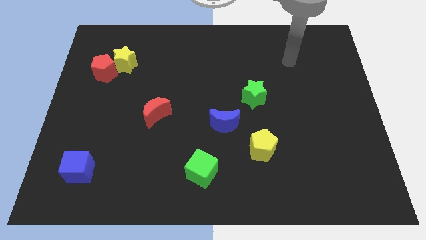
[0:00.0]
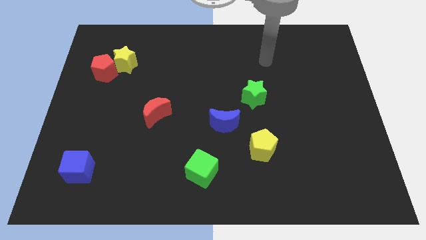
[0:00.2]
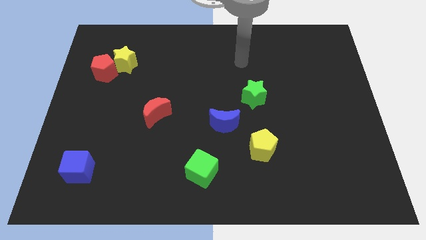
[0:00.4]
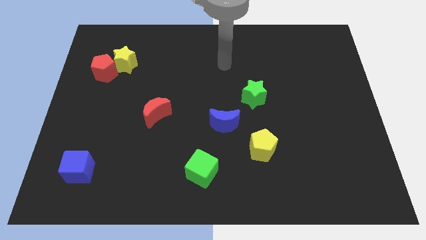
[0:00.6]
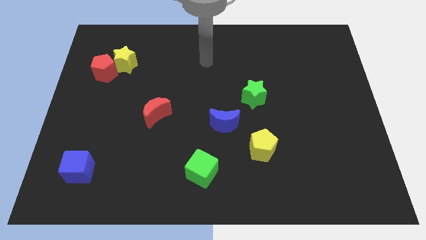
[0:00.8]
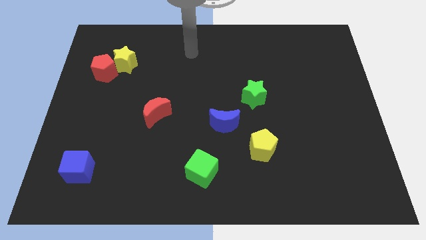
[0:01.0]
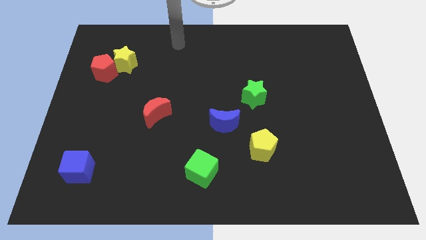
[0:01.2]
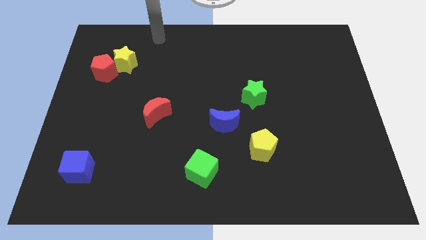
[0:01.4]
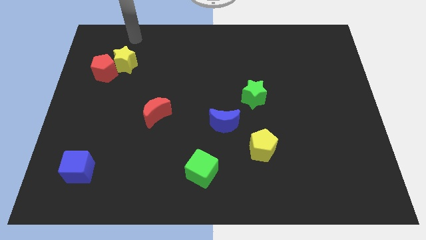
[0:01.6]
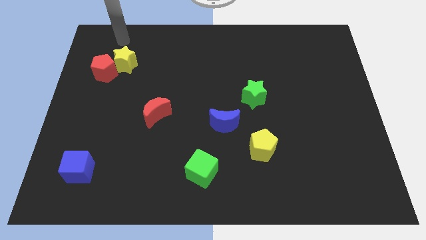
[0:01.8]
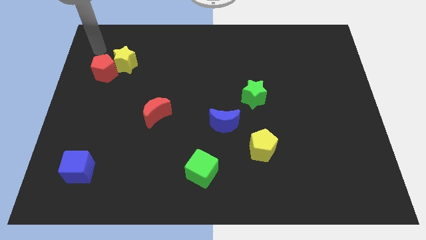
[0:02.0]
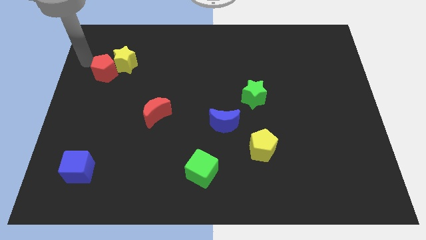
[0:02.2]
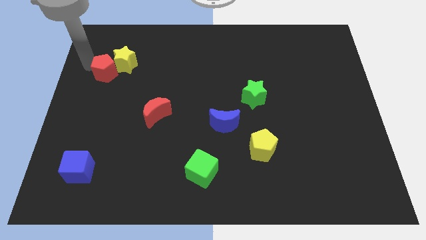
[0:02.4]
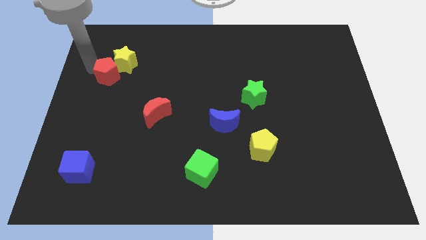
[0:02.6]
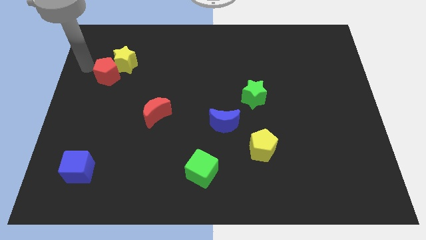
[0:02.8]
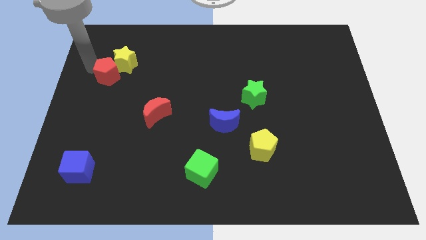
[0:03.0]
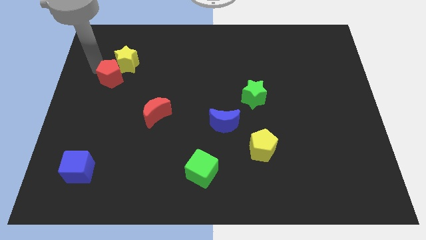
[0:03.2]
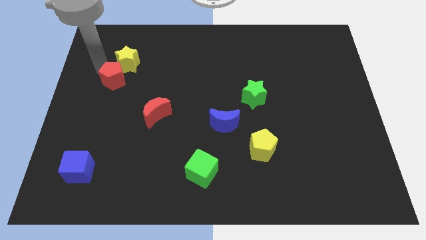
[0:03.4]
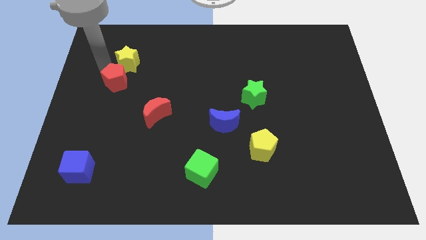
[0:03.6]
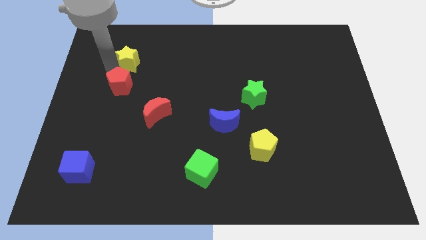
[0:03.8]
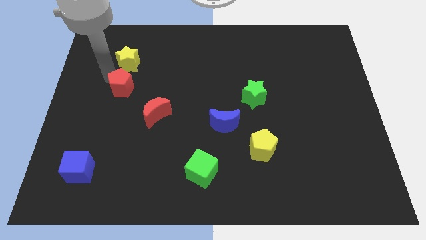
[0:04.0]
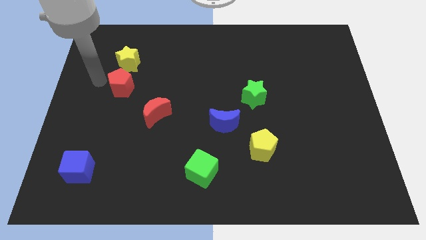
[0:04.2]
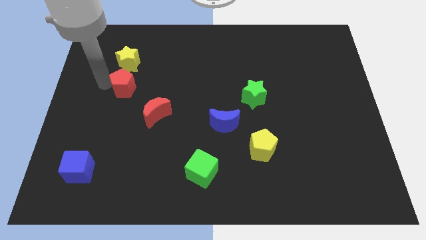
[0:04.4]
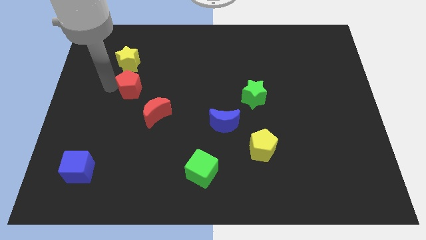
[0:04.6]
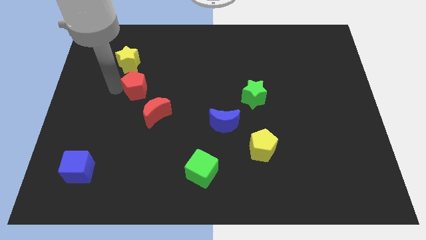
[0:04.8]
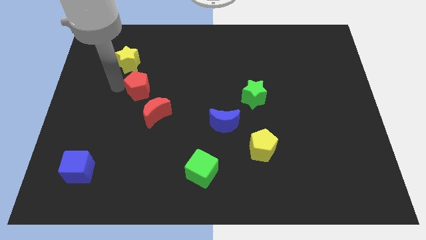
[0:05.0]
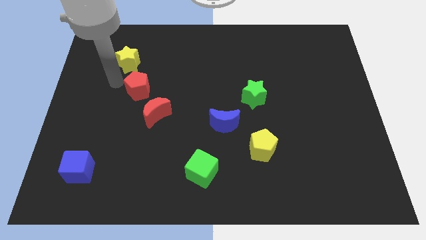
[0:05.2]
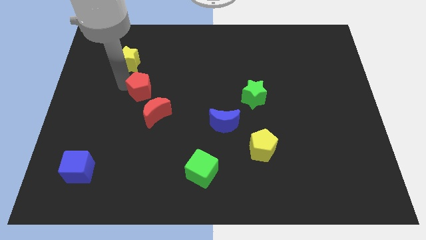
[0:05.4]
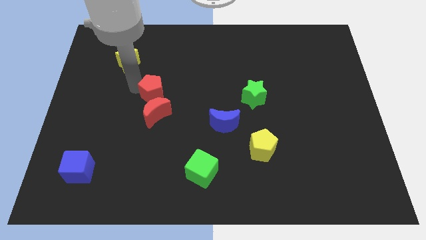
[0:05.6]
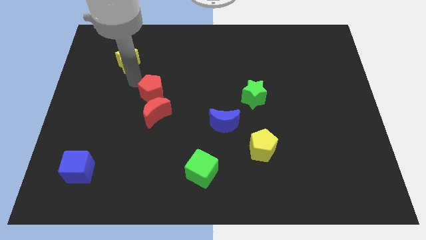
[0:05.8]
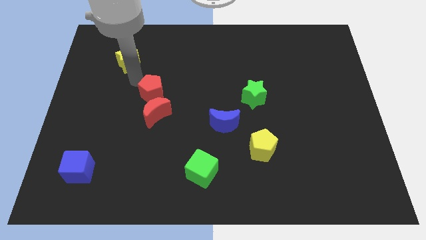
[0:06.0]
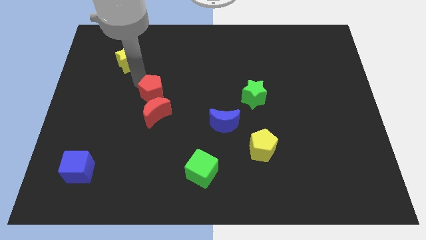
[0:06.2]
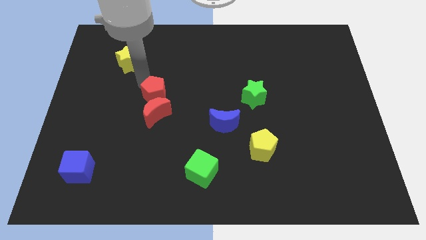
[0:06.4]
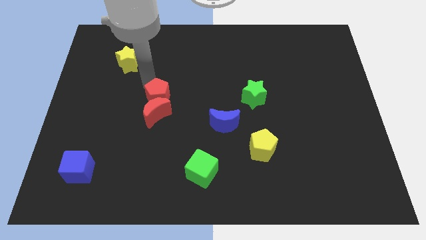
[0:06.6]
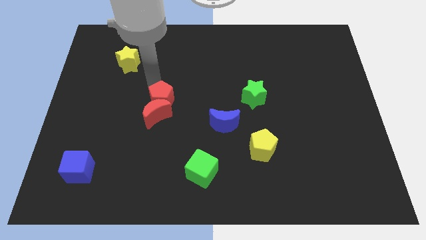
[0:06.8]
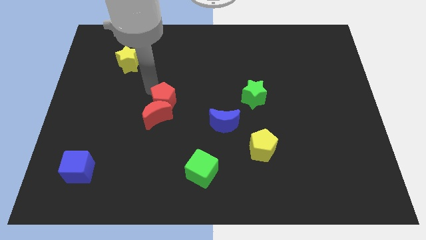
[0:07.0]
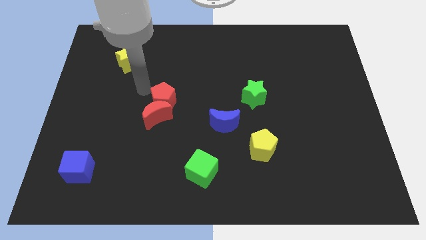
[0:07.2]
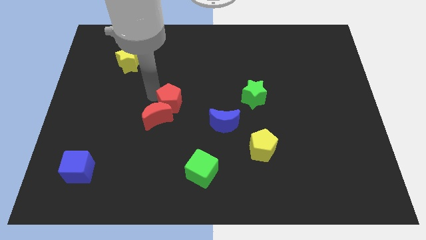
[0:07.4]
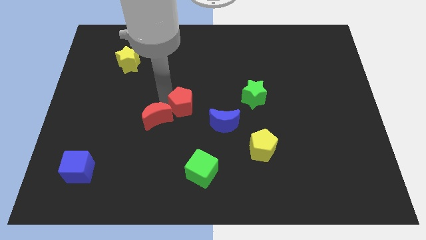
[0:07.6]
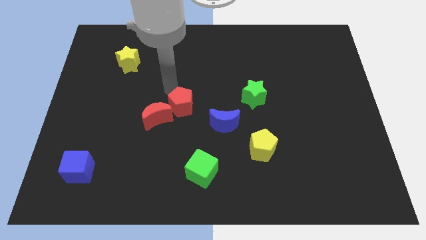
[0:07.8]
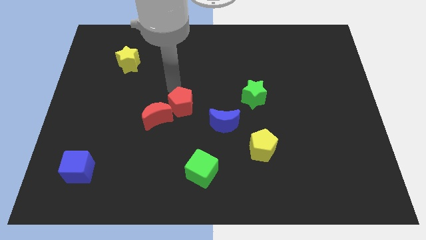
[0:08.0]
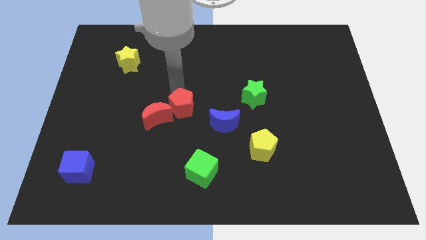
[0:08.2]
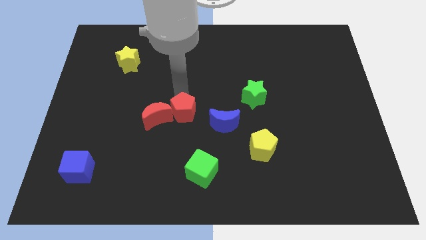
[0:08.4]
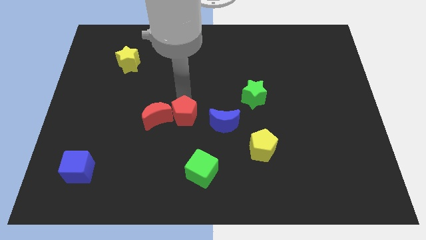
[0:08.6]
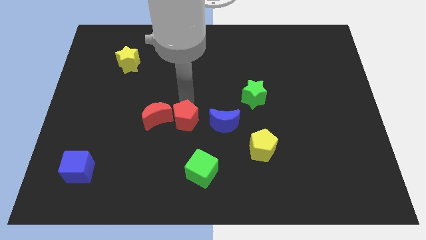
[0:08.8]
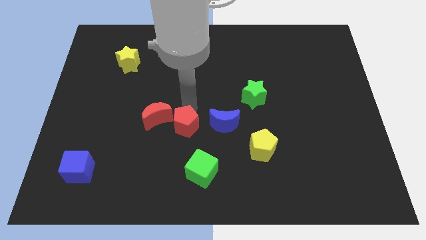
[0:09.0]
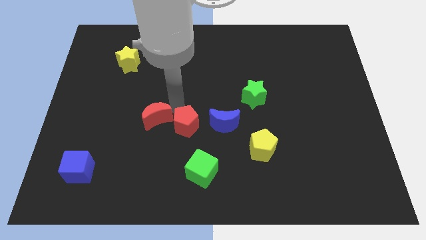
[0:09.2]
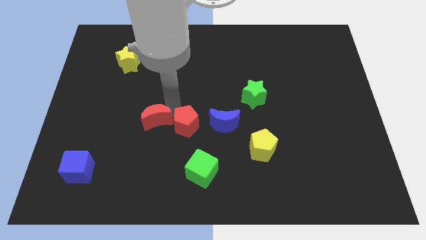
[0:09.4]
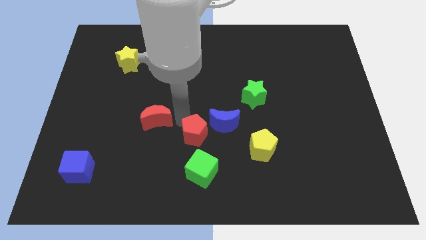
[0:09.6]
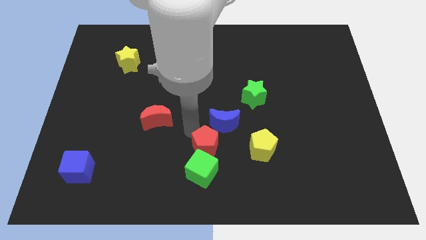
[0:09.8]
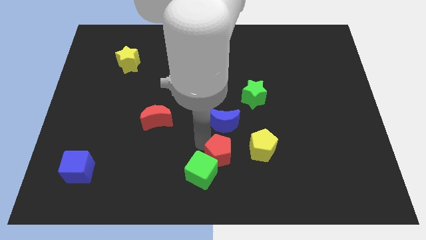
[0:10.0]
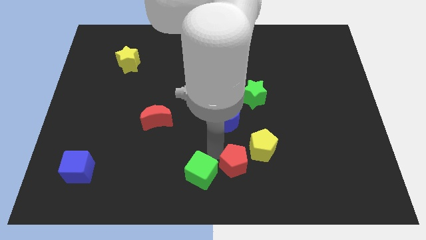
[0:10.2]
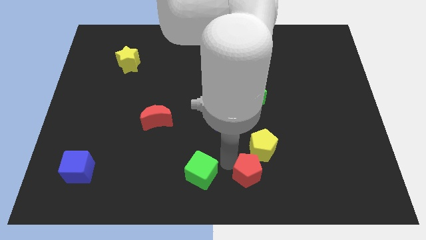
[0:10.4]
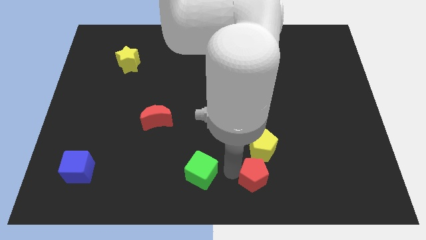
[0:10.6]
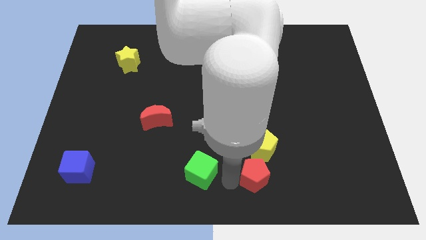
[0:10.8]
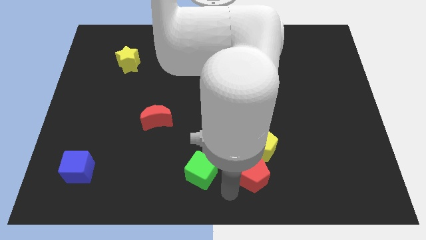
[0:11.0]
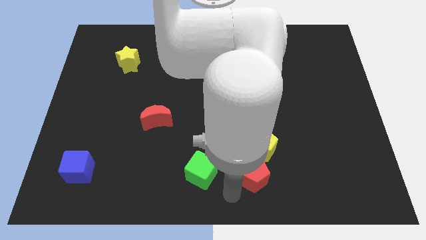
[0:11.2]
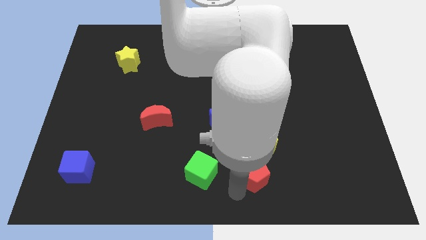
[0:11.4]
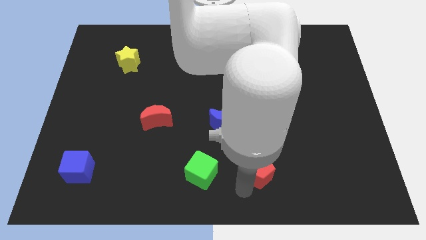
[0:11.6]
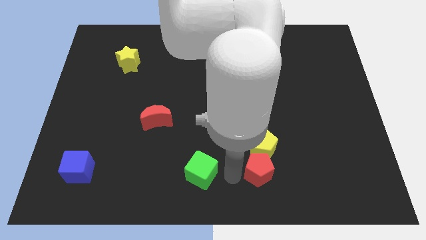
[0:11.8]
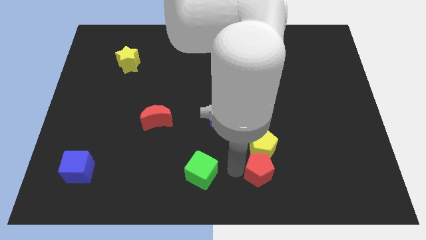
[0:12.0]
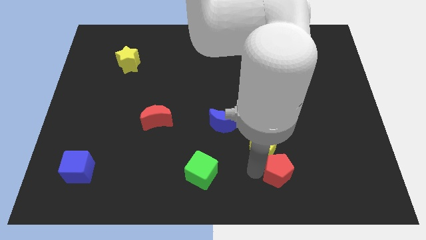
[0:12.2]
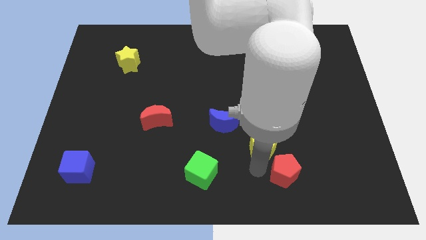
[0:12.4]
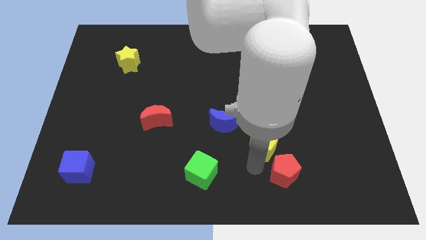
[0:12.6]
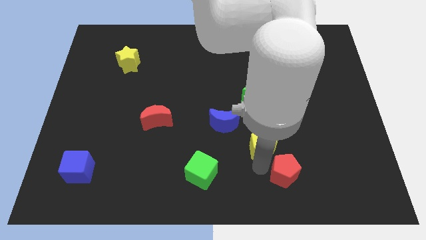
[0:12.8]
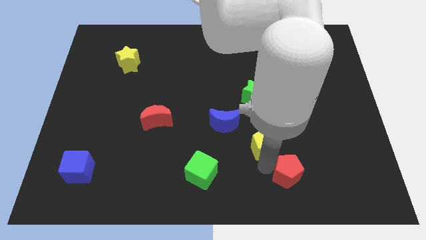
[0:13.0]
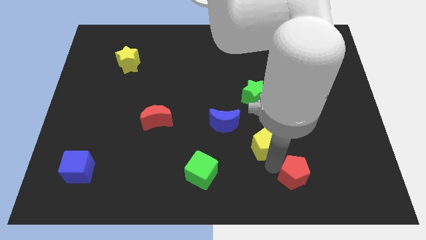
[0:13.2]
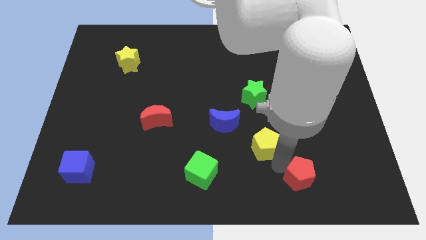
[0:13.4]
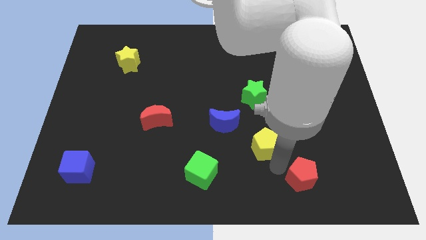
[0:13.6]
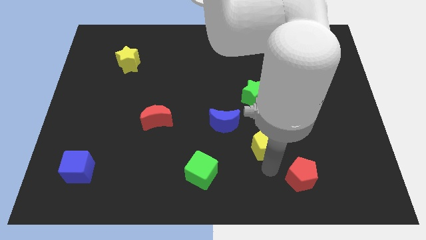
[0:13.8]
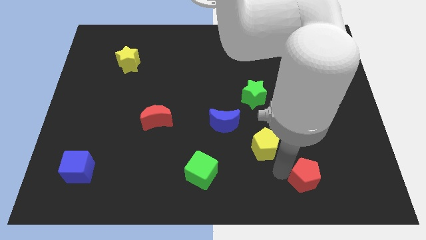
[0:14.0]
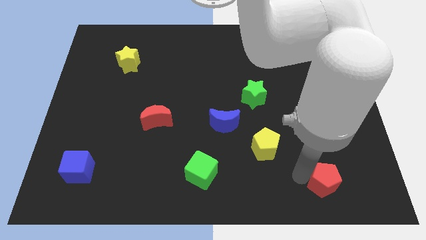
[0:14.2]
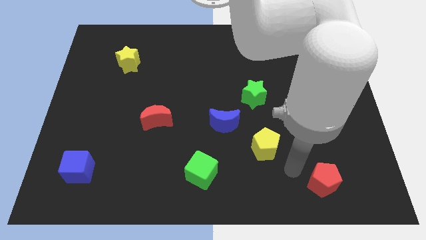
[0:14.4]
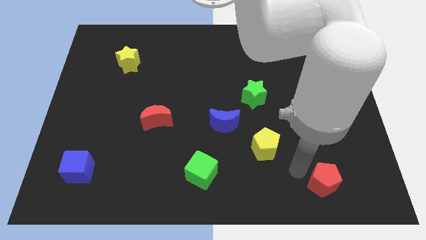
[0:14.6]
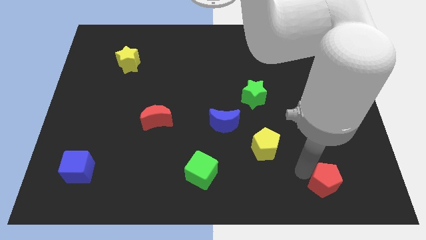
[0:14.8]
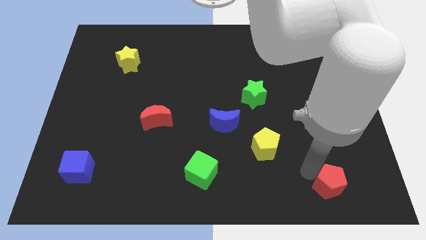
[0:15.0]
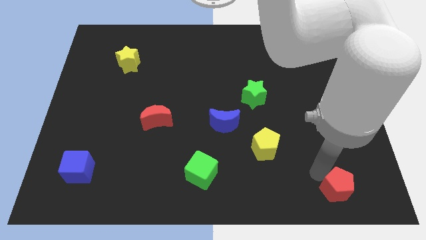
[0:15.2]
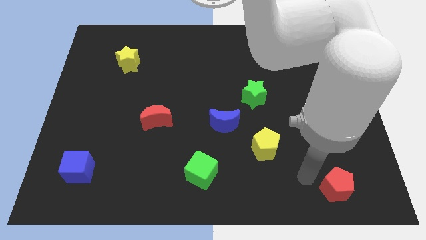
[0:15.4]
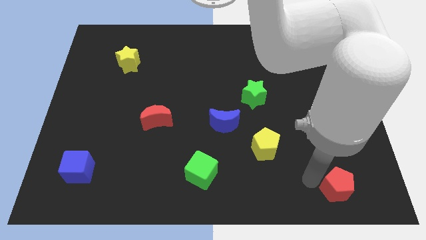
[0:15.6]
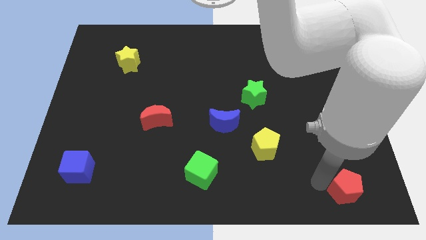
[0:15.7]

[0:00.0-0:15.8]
put the red pentagon to the bottom right
